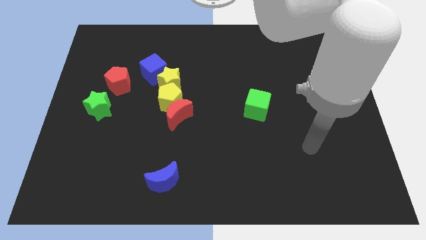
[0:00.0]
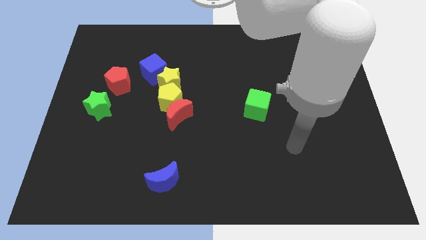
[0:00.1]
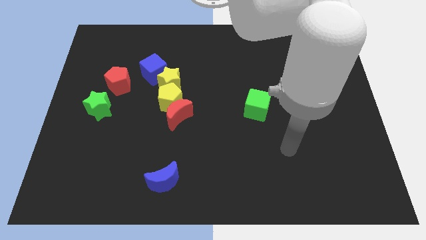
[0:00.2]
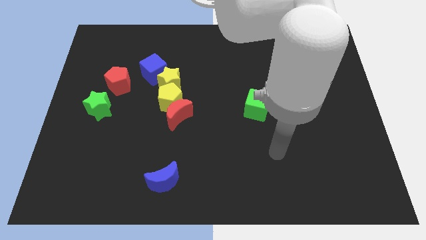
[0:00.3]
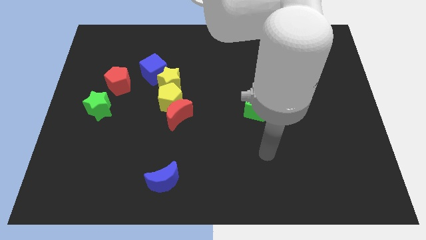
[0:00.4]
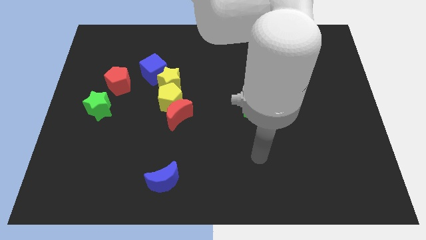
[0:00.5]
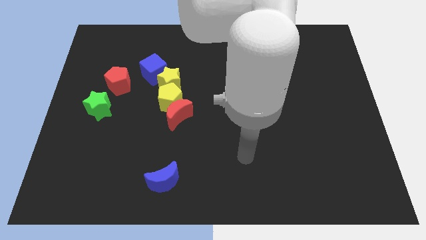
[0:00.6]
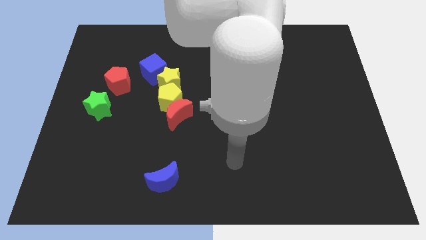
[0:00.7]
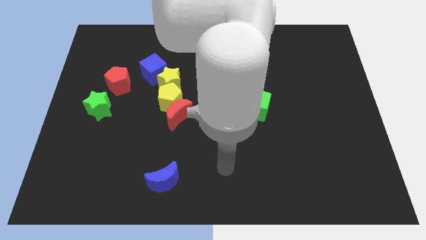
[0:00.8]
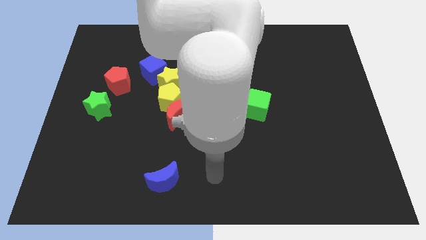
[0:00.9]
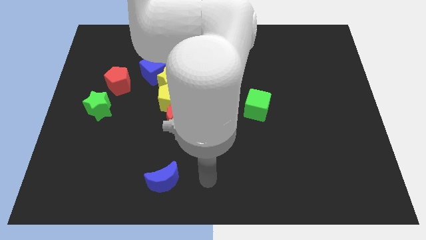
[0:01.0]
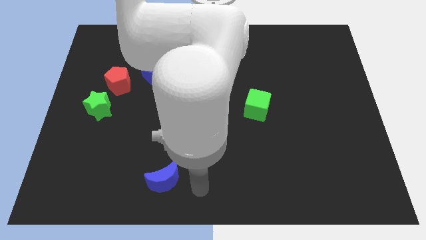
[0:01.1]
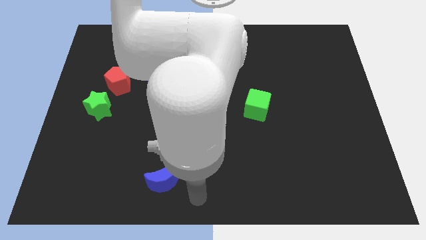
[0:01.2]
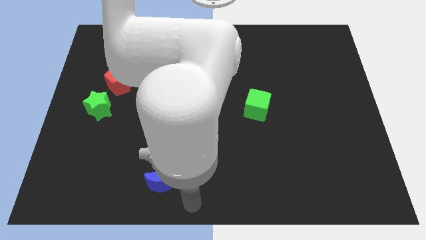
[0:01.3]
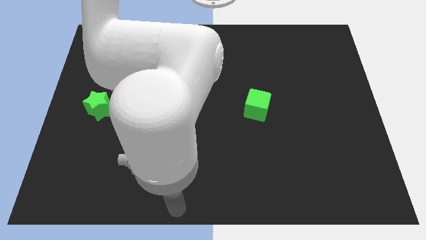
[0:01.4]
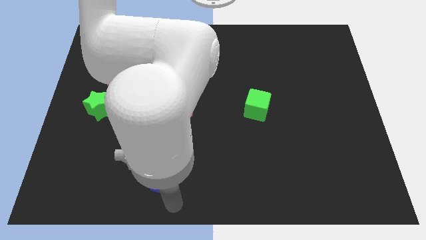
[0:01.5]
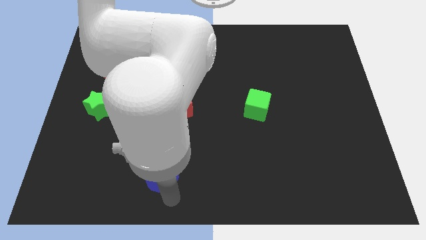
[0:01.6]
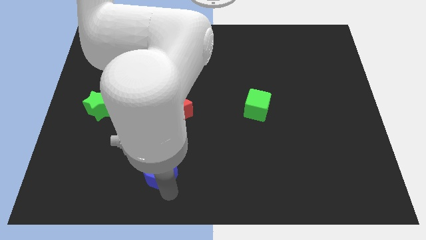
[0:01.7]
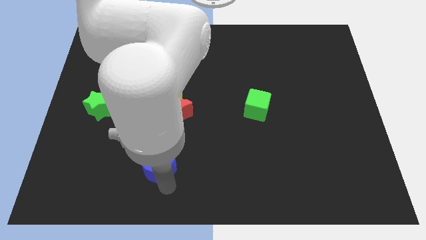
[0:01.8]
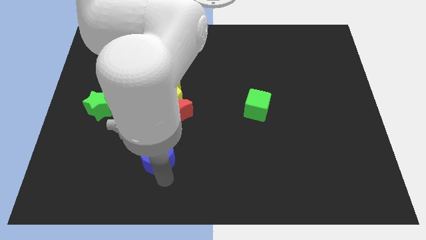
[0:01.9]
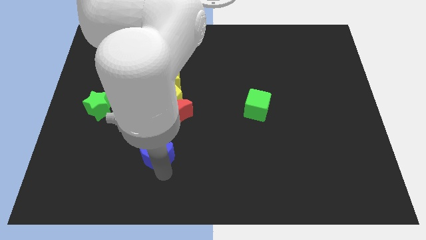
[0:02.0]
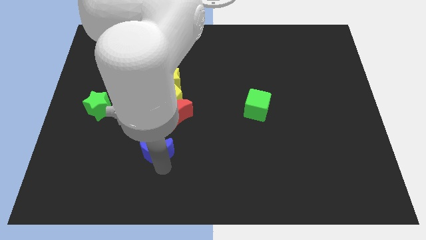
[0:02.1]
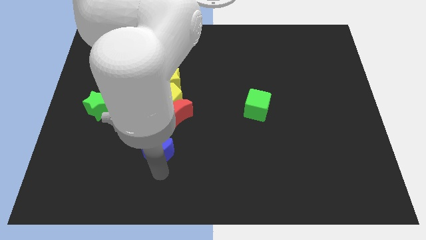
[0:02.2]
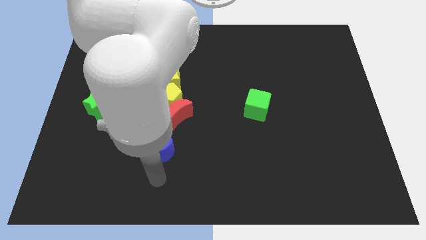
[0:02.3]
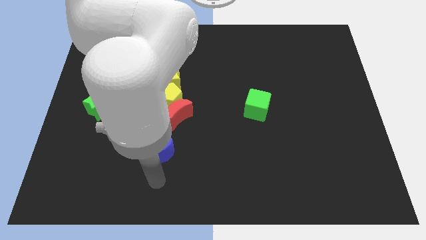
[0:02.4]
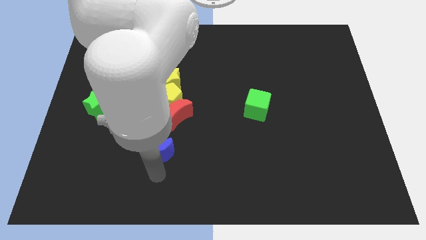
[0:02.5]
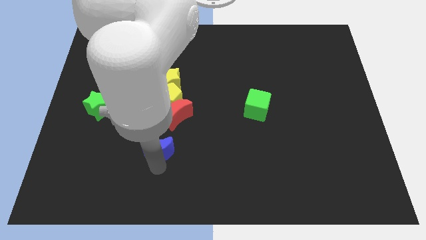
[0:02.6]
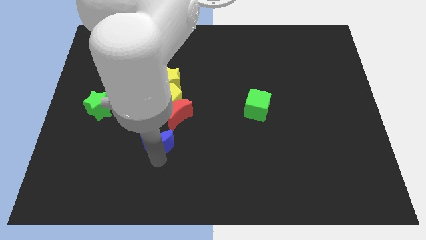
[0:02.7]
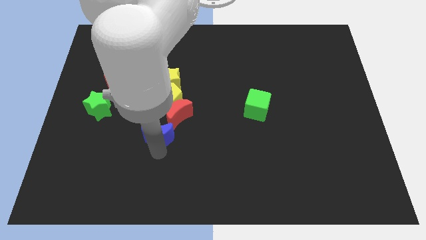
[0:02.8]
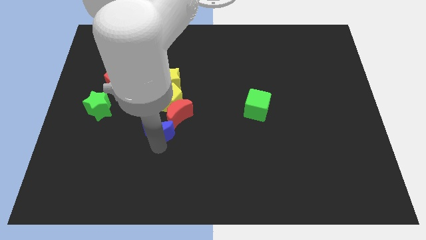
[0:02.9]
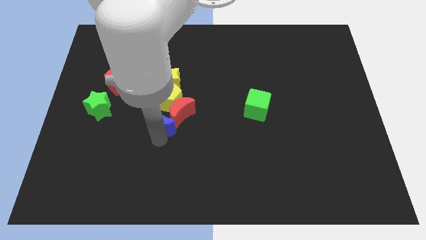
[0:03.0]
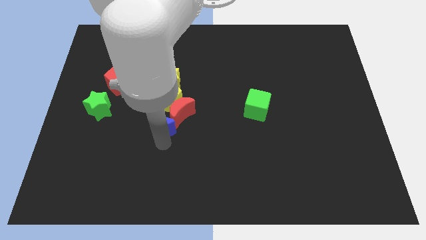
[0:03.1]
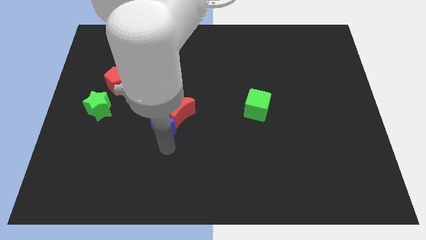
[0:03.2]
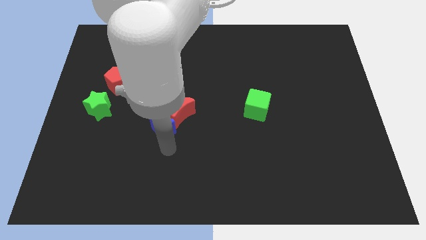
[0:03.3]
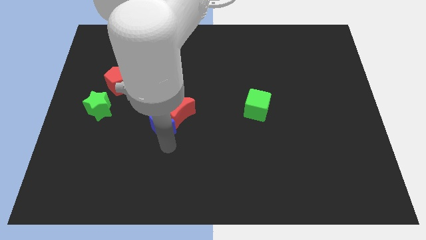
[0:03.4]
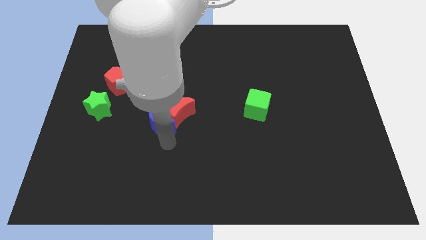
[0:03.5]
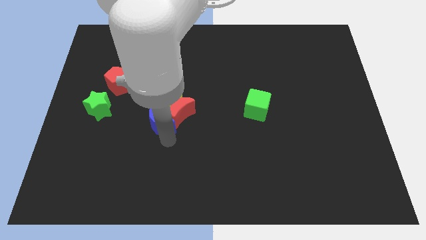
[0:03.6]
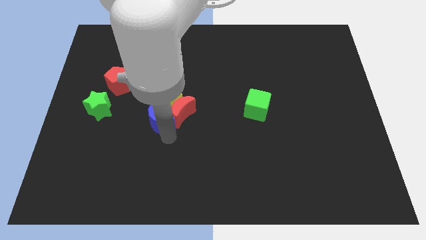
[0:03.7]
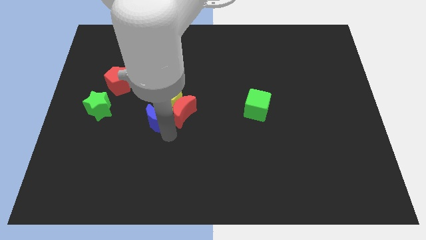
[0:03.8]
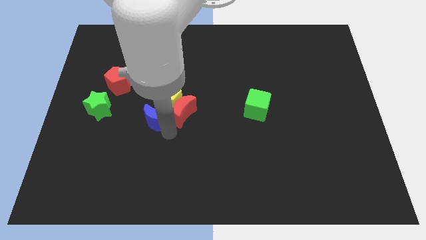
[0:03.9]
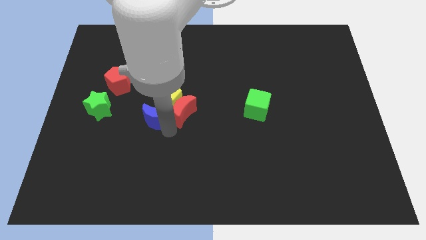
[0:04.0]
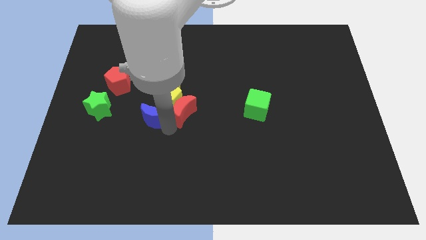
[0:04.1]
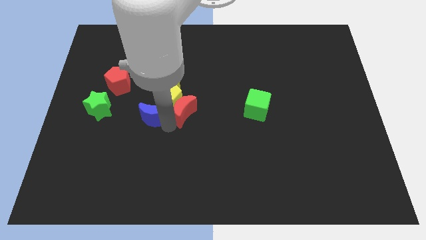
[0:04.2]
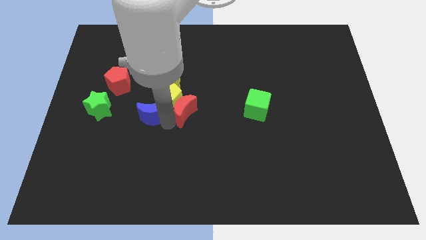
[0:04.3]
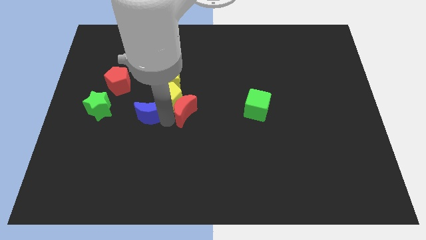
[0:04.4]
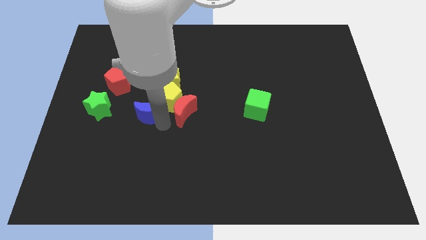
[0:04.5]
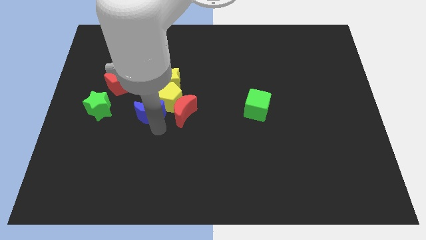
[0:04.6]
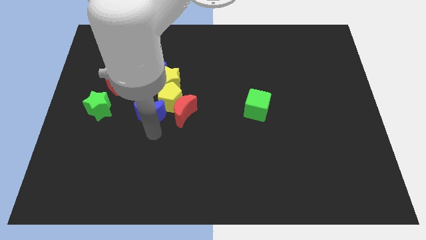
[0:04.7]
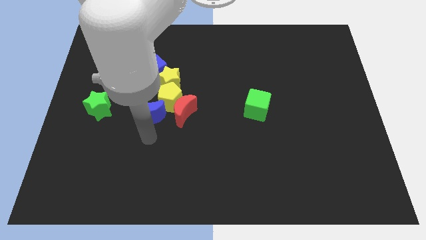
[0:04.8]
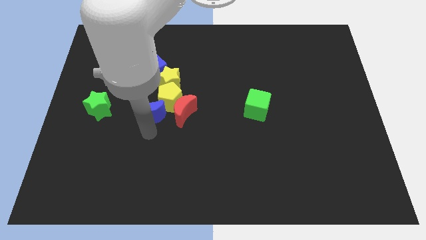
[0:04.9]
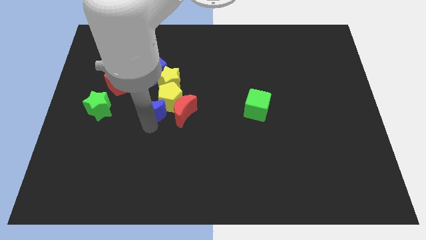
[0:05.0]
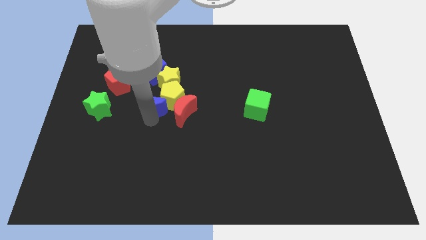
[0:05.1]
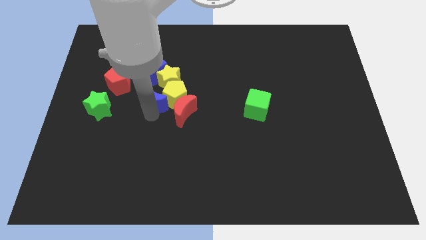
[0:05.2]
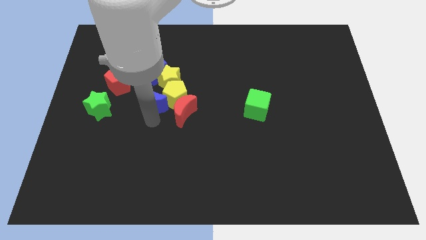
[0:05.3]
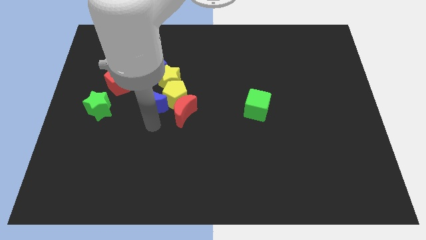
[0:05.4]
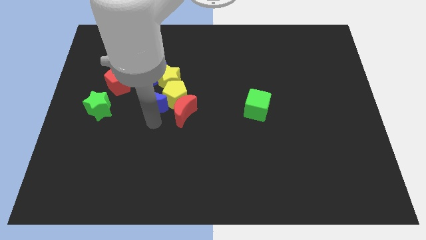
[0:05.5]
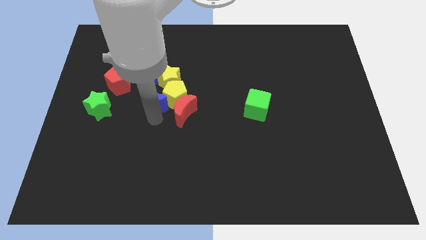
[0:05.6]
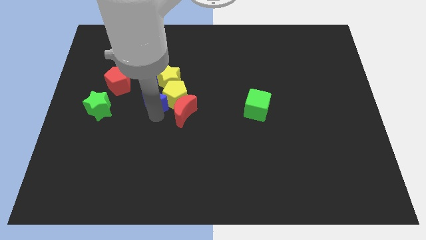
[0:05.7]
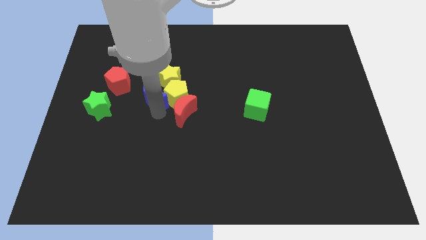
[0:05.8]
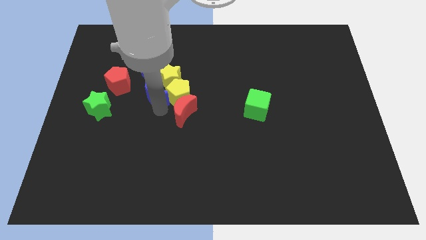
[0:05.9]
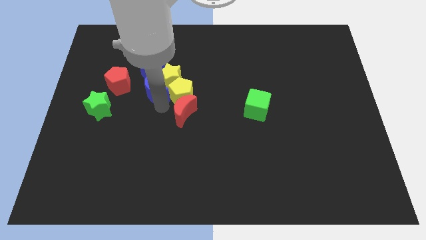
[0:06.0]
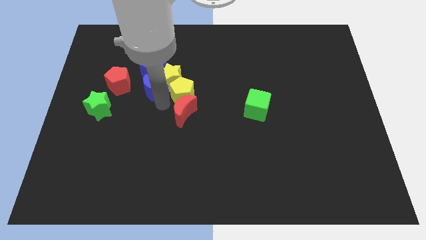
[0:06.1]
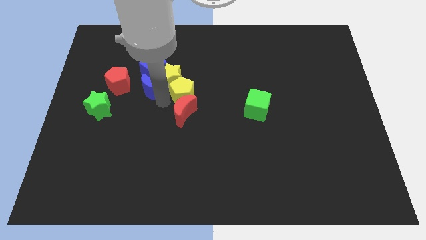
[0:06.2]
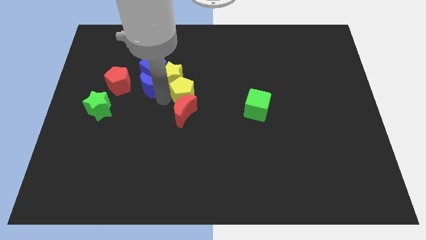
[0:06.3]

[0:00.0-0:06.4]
put the blue moon next to the blue cube
